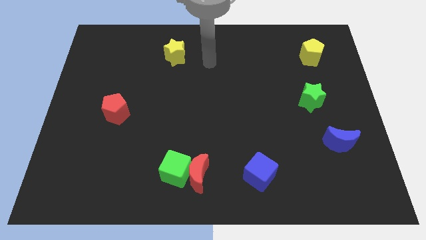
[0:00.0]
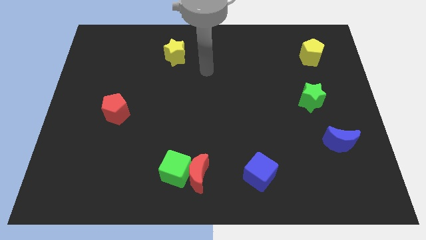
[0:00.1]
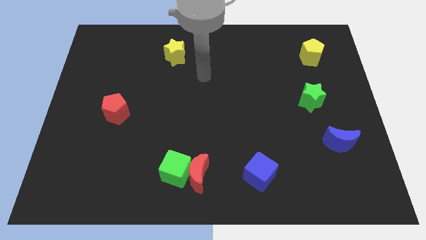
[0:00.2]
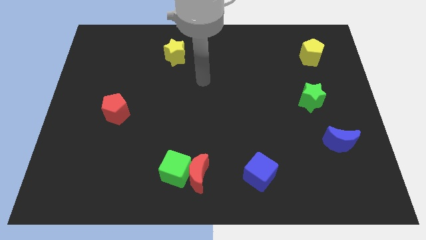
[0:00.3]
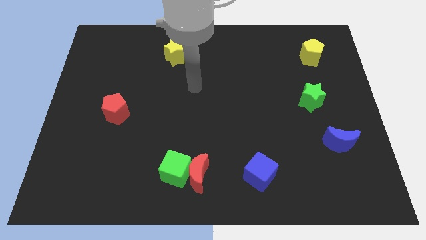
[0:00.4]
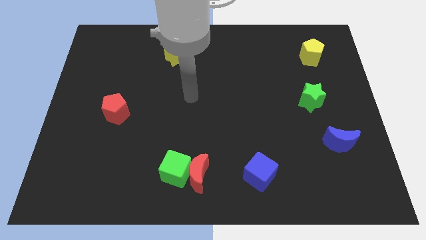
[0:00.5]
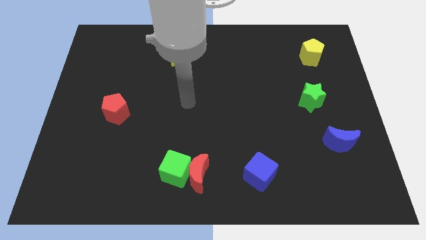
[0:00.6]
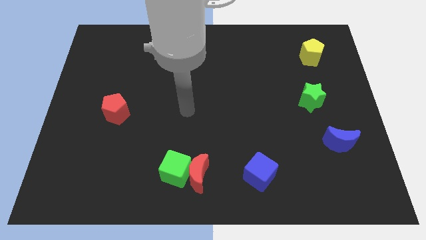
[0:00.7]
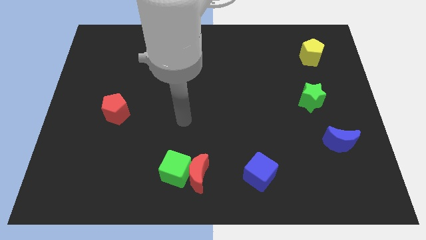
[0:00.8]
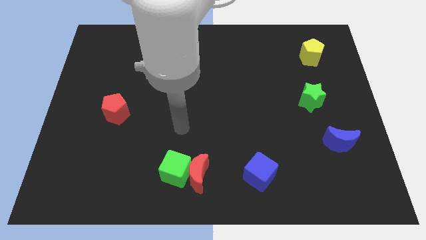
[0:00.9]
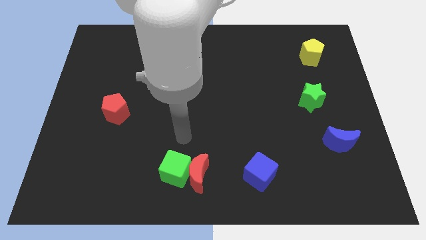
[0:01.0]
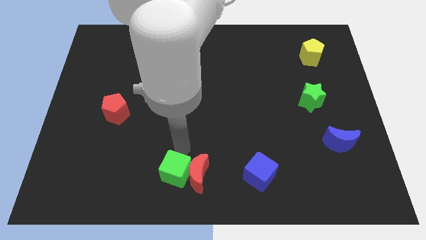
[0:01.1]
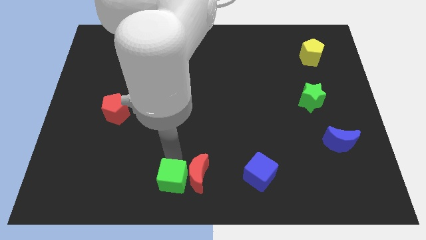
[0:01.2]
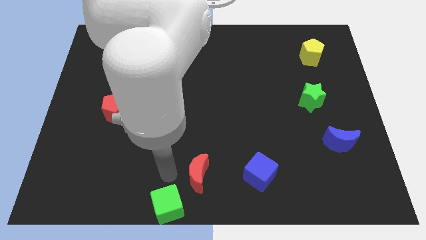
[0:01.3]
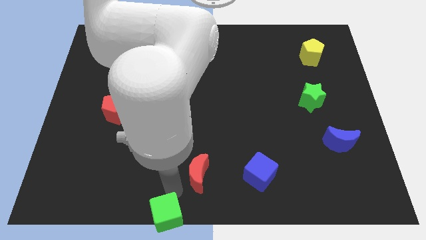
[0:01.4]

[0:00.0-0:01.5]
pull the red moon apart from the green cube

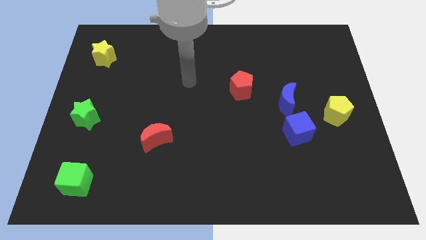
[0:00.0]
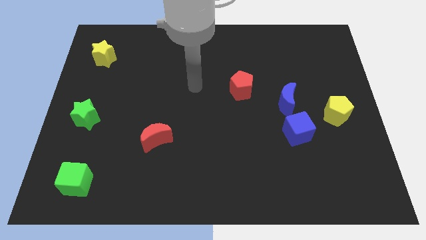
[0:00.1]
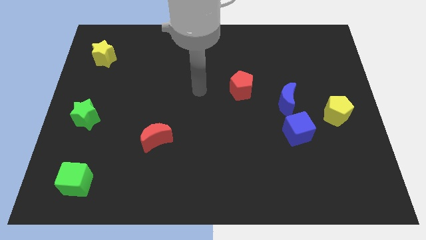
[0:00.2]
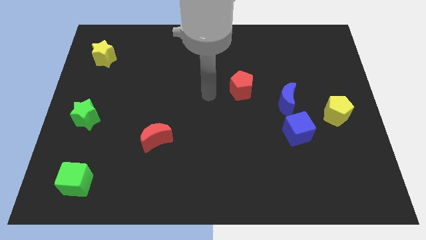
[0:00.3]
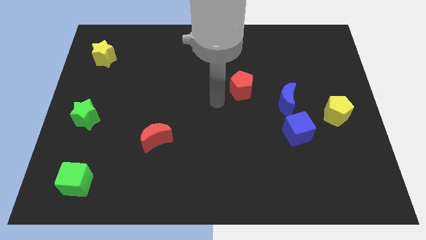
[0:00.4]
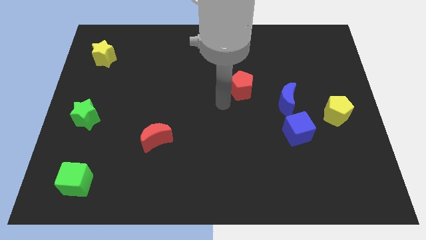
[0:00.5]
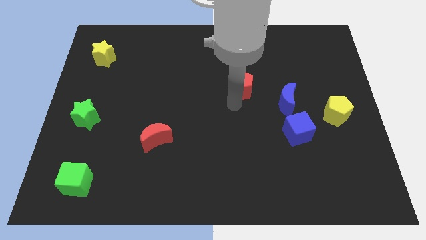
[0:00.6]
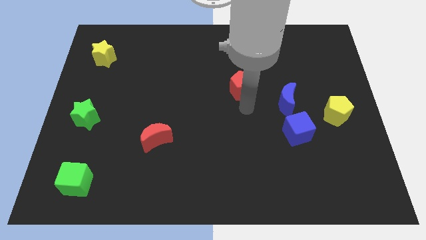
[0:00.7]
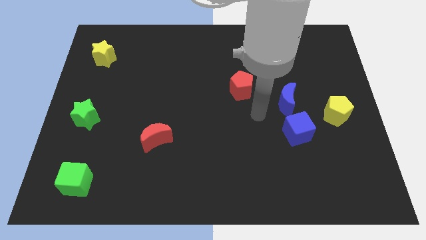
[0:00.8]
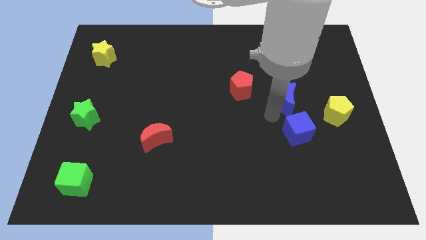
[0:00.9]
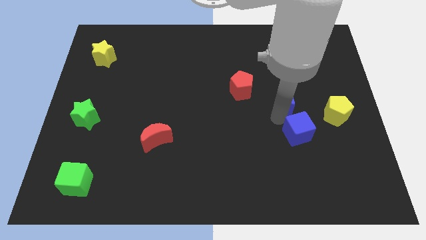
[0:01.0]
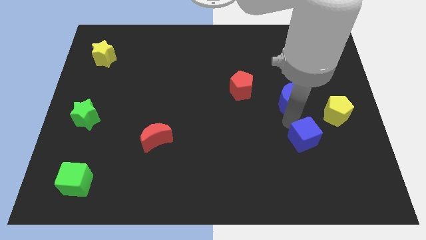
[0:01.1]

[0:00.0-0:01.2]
separate the blue moon from the blue cube

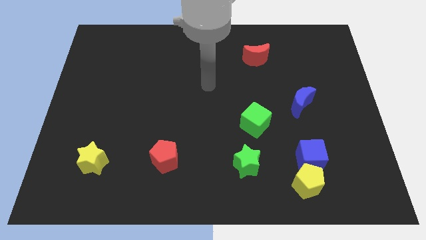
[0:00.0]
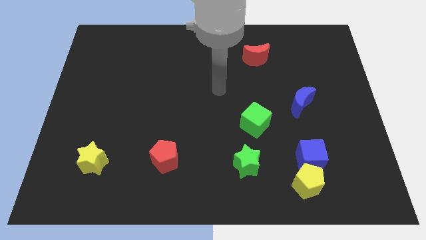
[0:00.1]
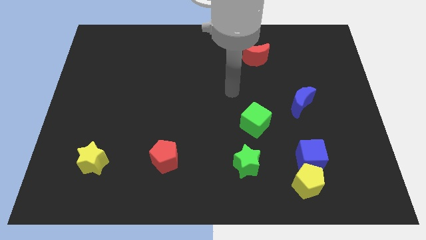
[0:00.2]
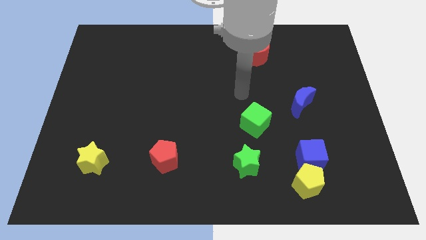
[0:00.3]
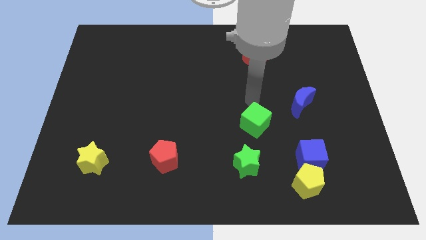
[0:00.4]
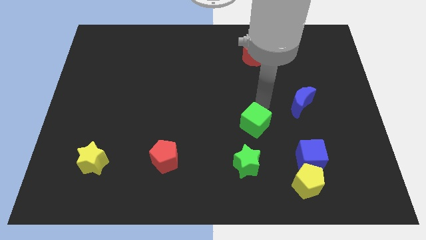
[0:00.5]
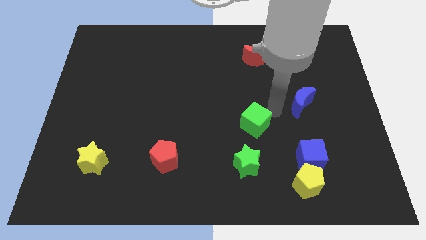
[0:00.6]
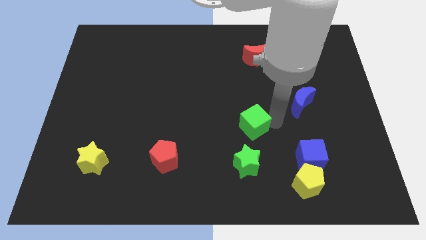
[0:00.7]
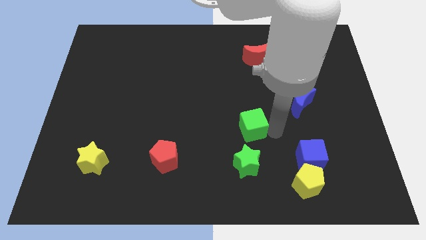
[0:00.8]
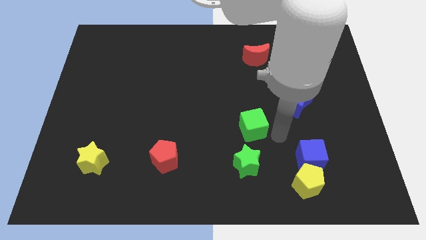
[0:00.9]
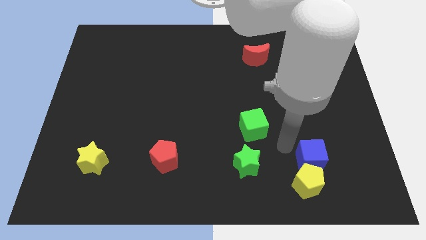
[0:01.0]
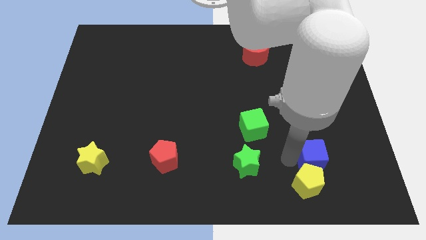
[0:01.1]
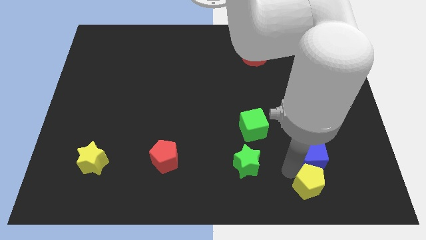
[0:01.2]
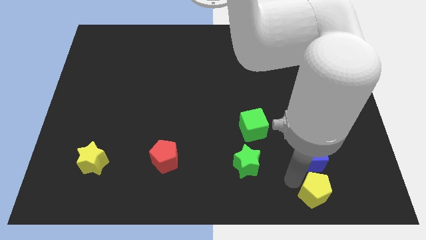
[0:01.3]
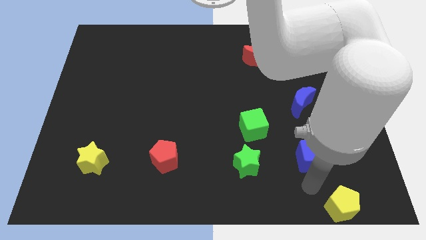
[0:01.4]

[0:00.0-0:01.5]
move the blue cube away from the yellow pentagon

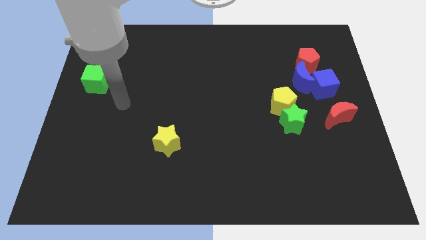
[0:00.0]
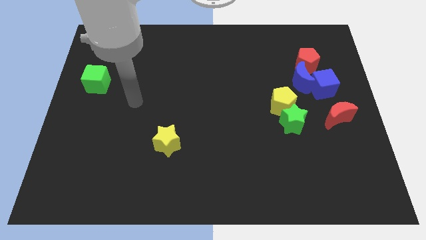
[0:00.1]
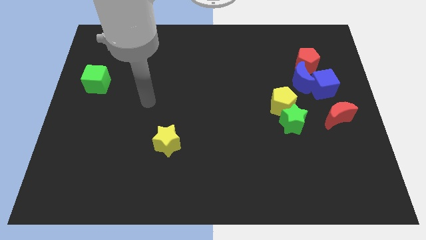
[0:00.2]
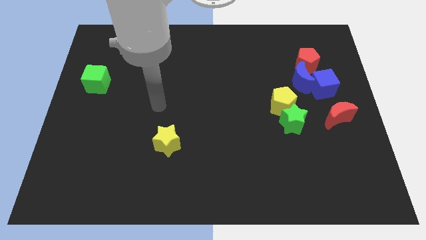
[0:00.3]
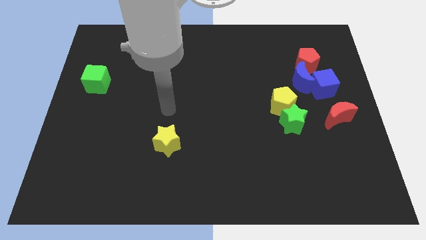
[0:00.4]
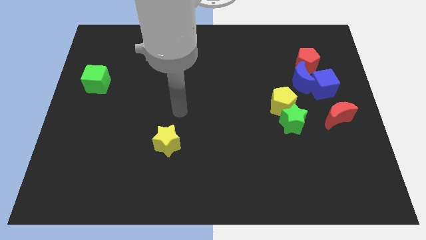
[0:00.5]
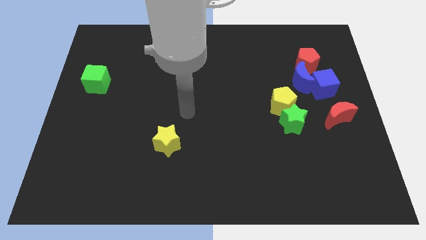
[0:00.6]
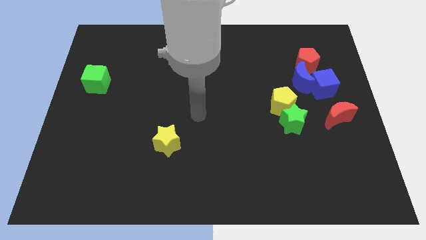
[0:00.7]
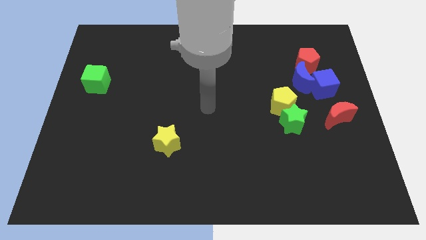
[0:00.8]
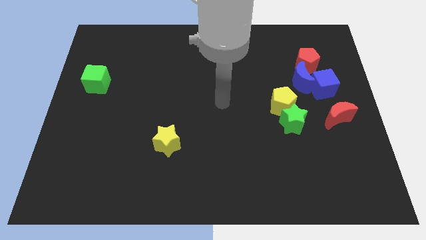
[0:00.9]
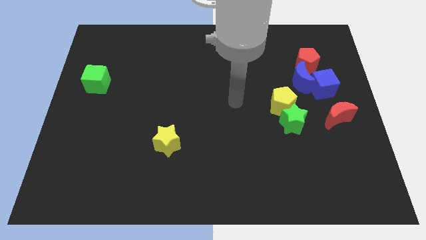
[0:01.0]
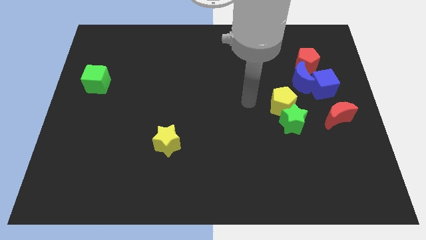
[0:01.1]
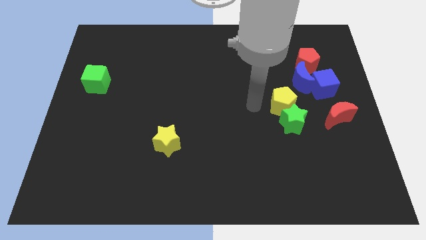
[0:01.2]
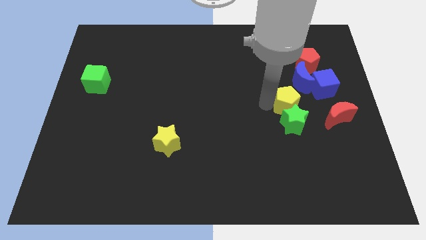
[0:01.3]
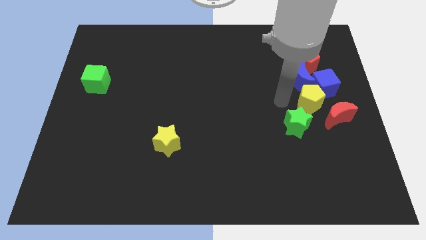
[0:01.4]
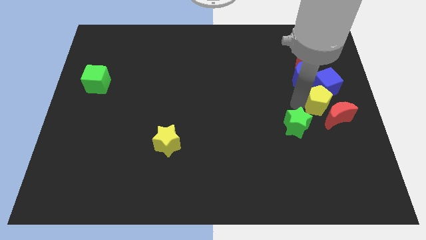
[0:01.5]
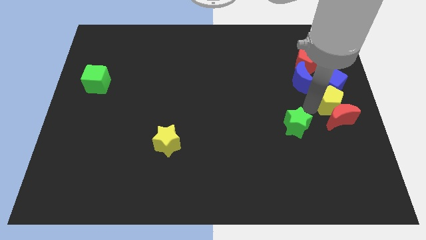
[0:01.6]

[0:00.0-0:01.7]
pull the green star apart from the yellow pentagon

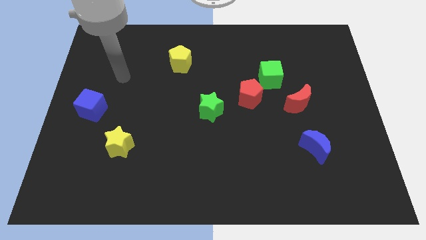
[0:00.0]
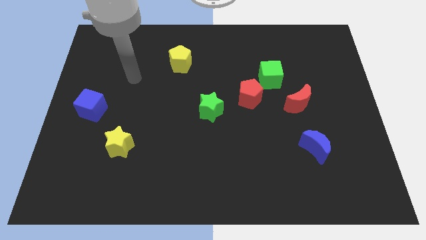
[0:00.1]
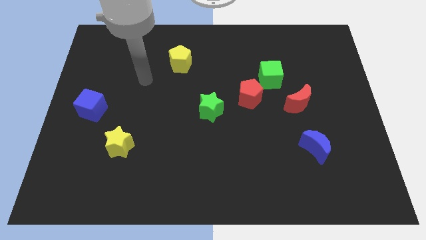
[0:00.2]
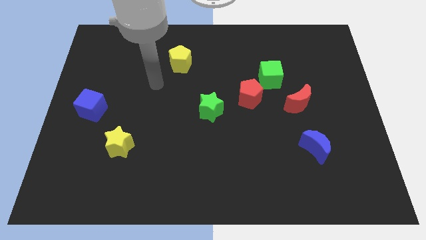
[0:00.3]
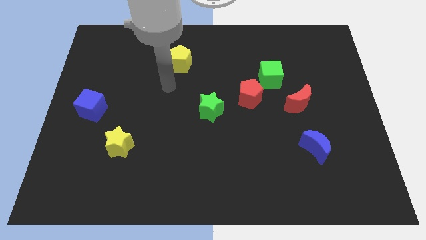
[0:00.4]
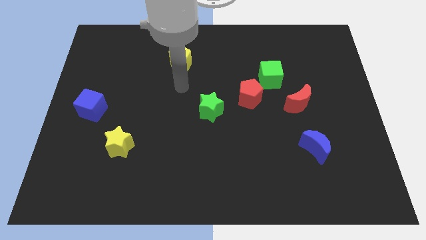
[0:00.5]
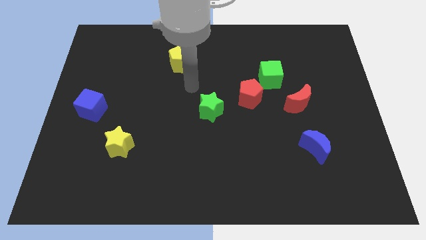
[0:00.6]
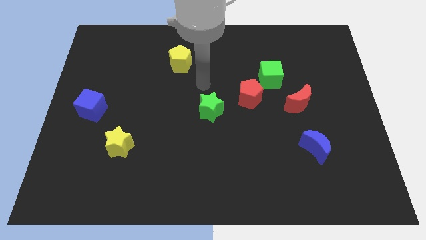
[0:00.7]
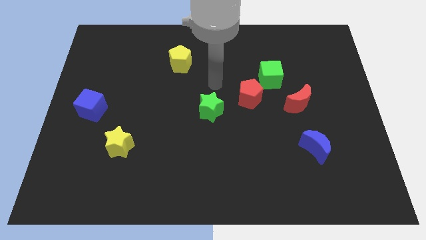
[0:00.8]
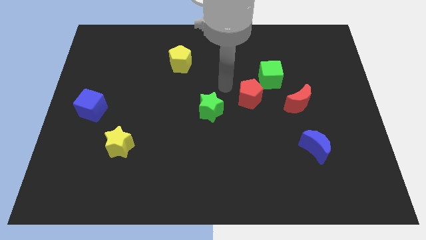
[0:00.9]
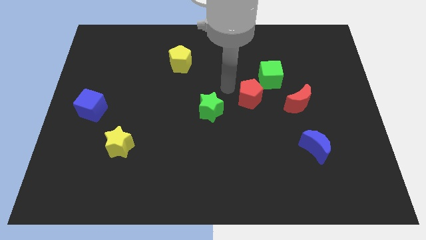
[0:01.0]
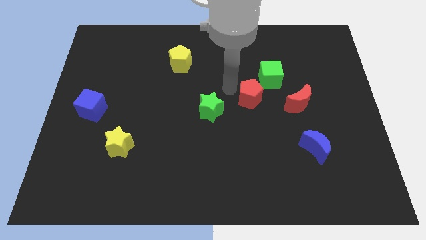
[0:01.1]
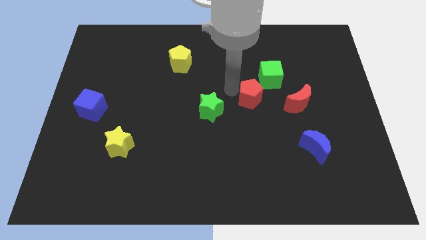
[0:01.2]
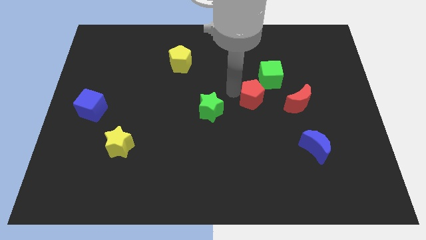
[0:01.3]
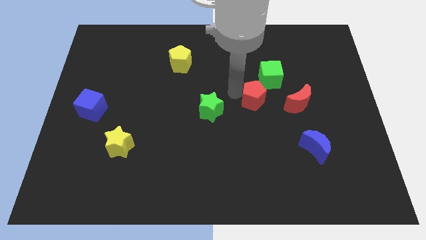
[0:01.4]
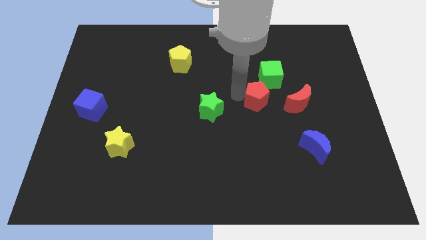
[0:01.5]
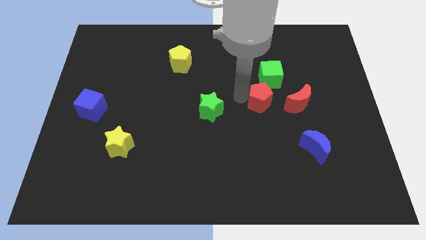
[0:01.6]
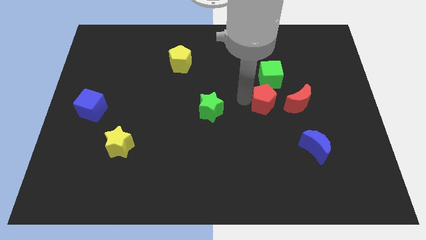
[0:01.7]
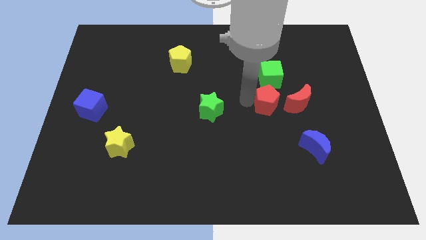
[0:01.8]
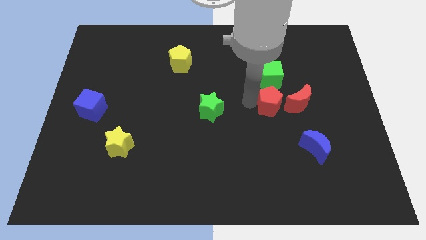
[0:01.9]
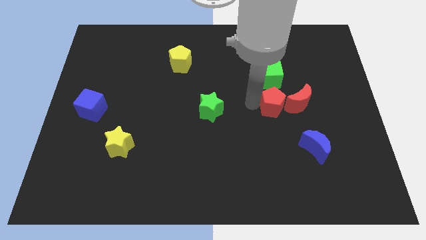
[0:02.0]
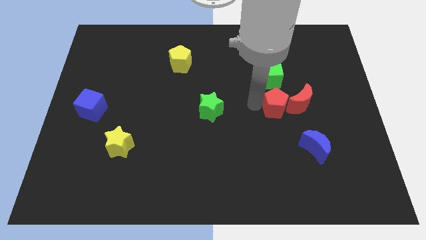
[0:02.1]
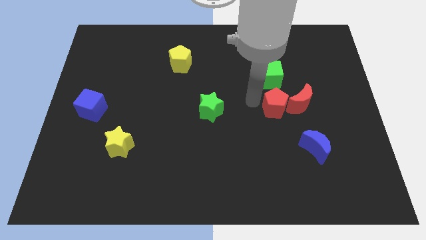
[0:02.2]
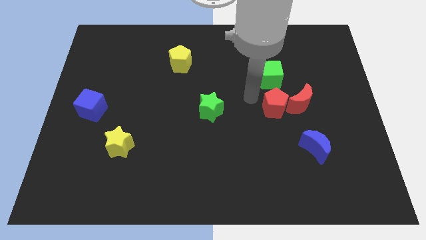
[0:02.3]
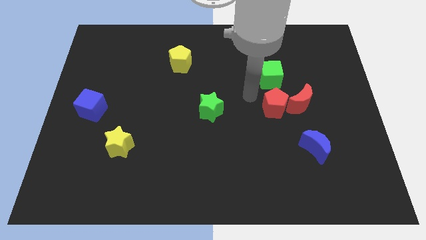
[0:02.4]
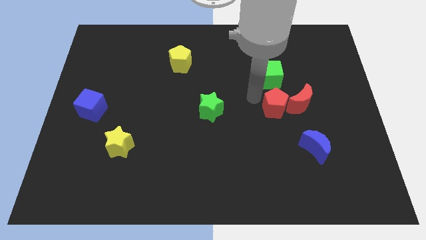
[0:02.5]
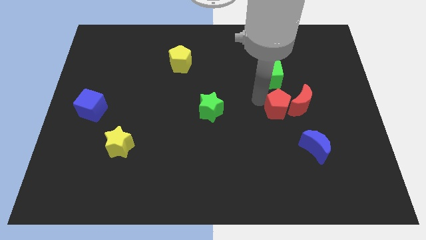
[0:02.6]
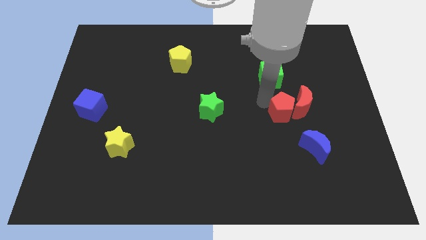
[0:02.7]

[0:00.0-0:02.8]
separate the red pentagon from the green cube and green star

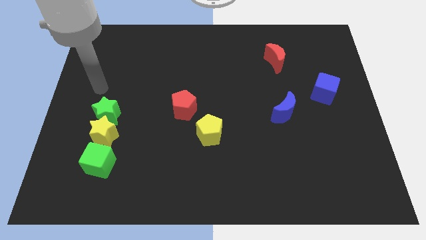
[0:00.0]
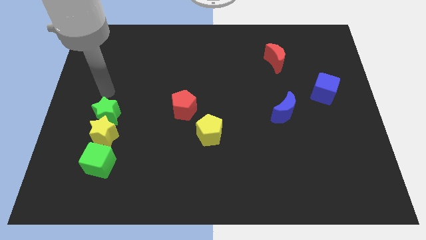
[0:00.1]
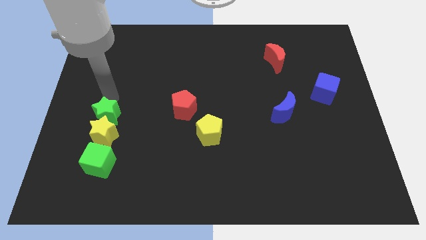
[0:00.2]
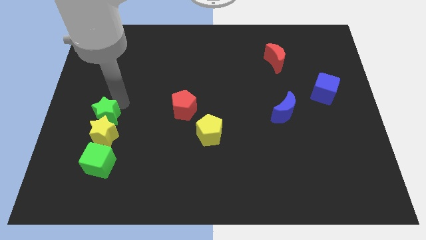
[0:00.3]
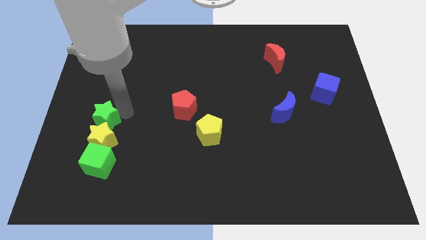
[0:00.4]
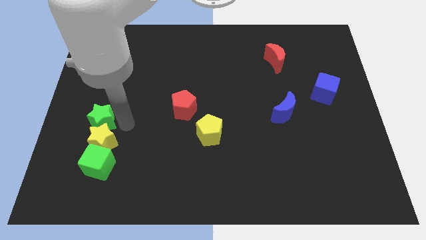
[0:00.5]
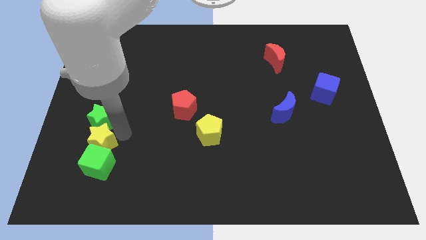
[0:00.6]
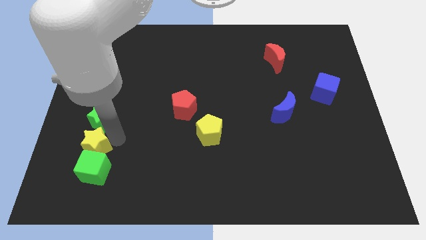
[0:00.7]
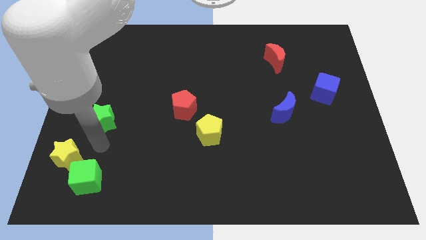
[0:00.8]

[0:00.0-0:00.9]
pull the green star apart from the yellow star
